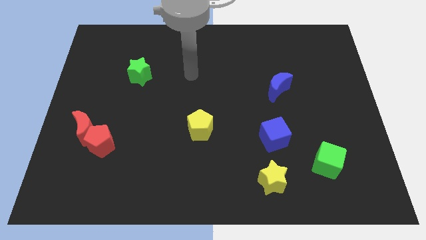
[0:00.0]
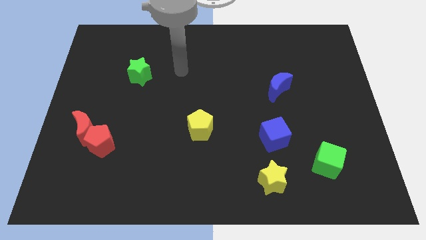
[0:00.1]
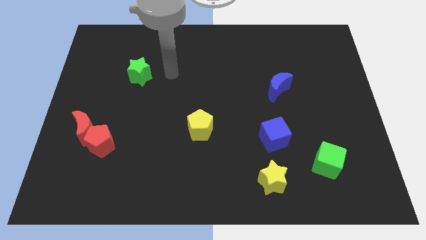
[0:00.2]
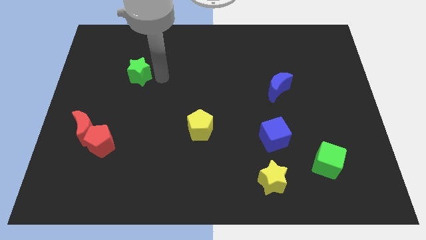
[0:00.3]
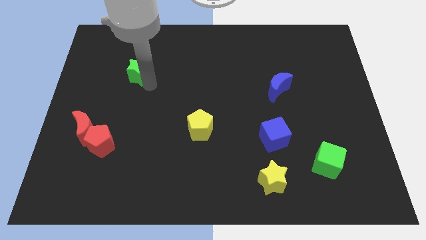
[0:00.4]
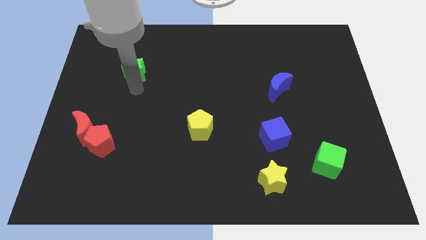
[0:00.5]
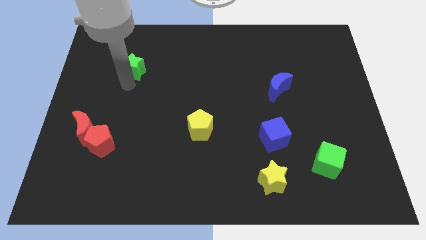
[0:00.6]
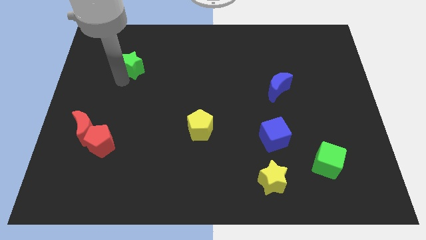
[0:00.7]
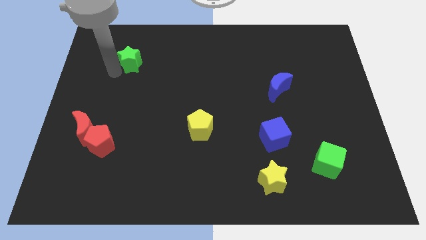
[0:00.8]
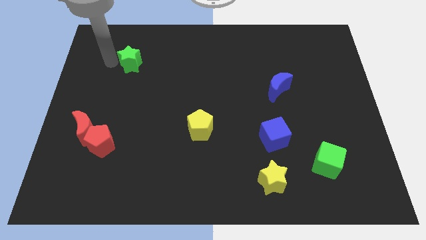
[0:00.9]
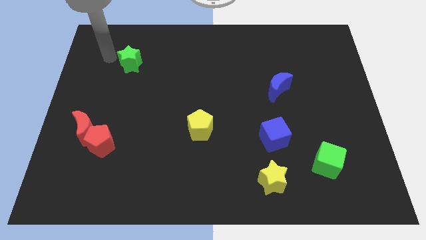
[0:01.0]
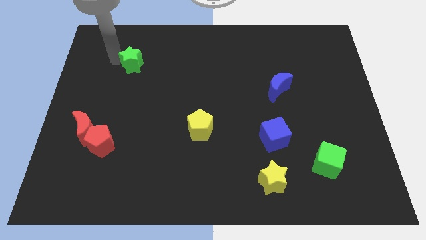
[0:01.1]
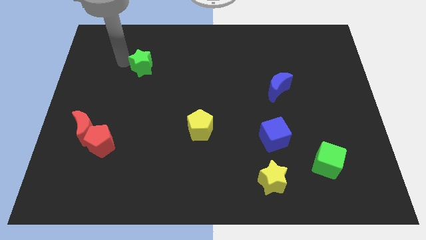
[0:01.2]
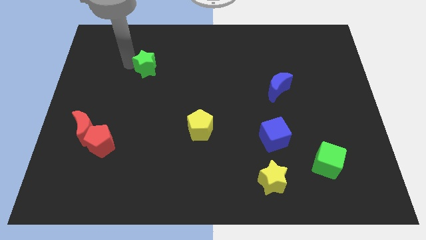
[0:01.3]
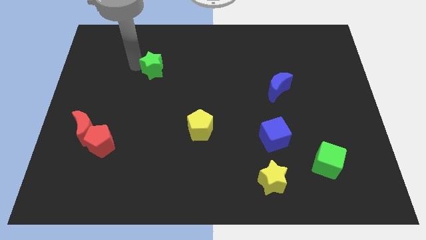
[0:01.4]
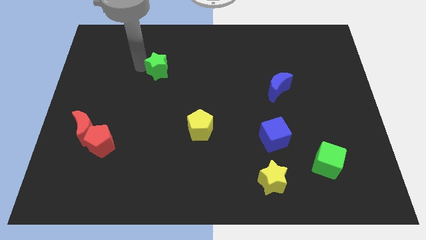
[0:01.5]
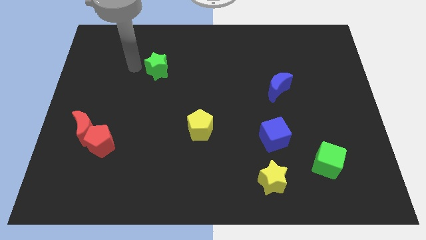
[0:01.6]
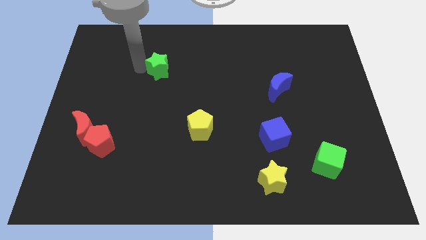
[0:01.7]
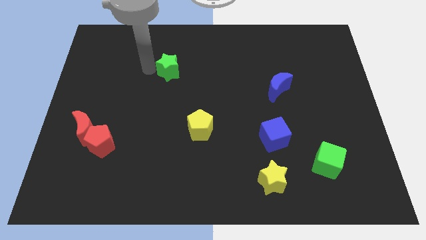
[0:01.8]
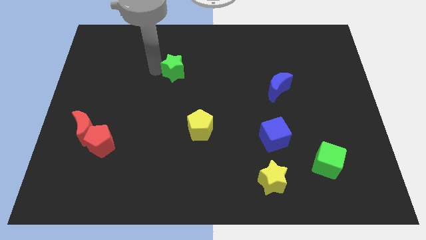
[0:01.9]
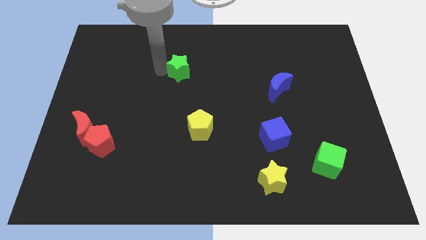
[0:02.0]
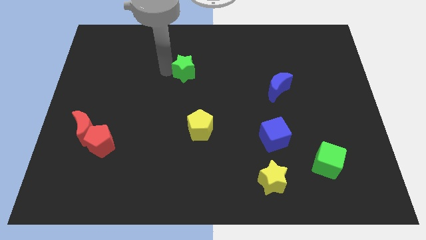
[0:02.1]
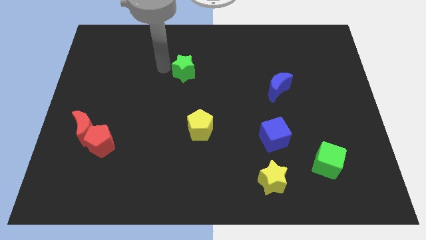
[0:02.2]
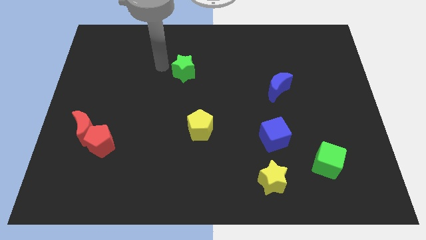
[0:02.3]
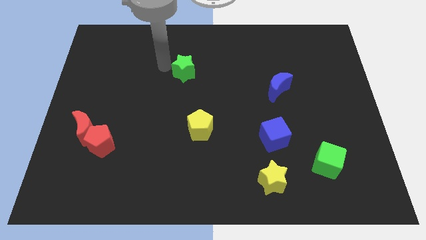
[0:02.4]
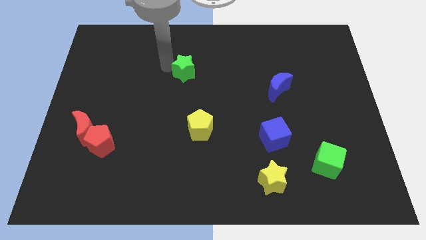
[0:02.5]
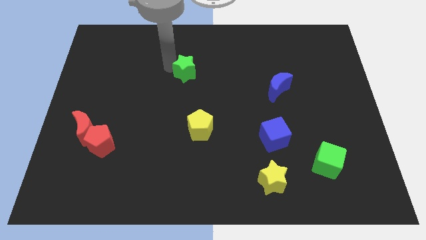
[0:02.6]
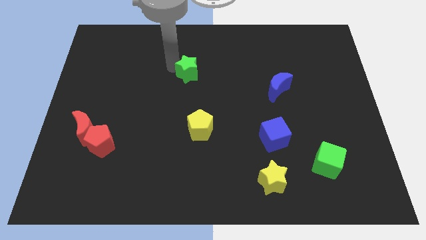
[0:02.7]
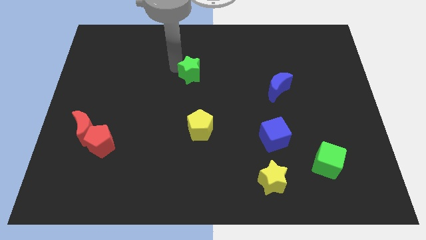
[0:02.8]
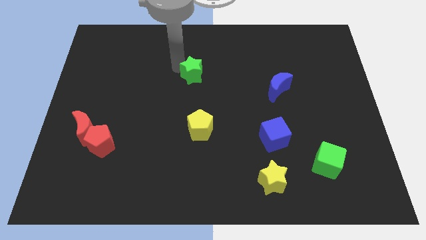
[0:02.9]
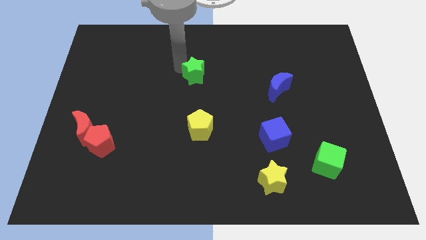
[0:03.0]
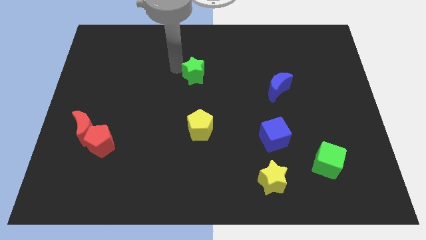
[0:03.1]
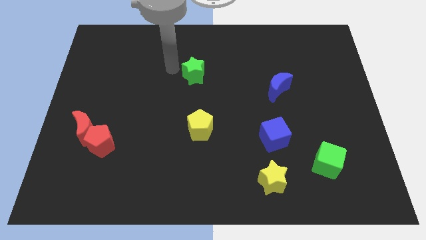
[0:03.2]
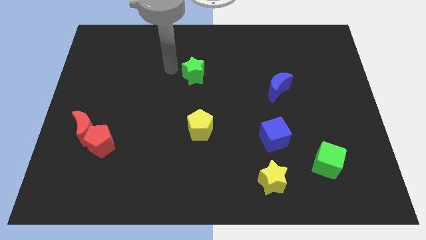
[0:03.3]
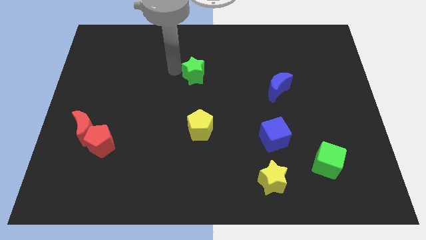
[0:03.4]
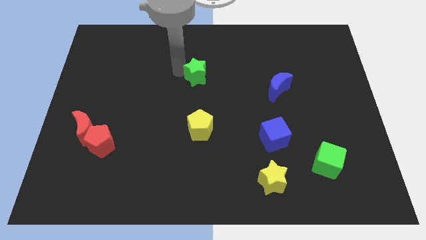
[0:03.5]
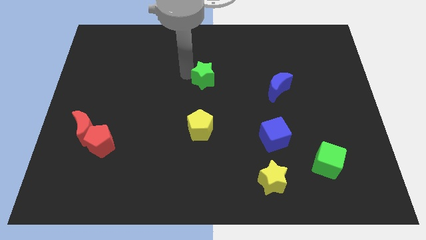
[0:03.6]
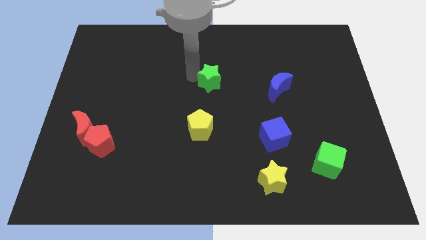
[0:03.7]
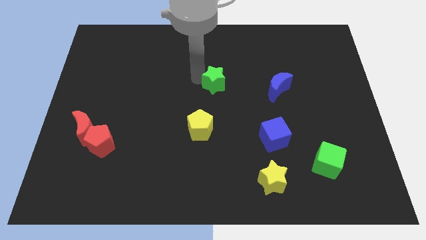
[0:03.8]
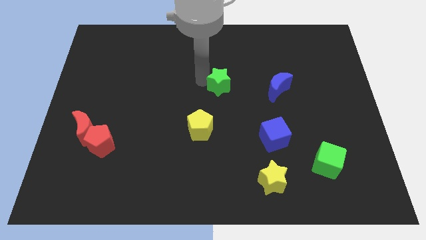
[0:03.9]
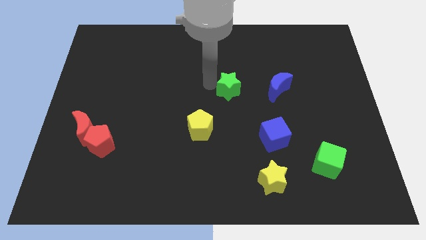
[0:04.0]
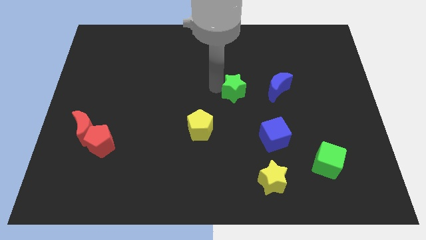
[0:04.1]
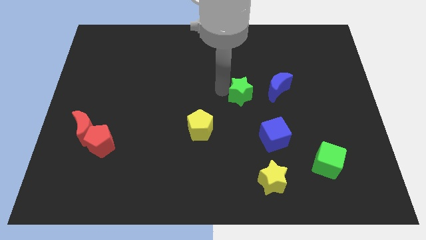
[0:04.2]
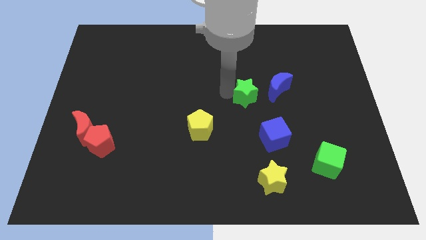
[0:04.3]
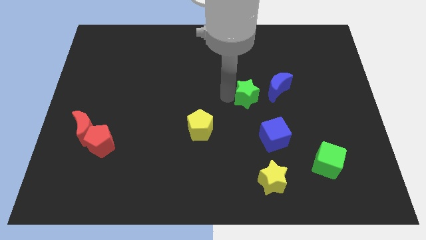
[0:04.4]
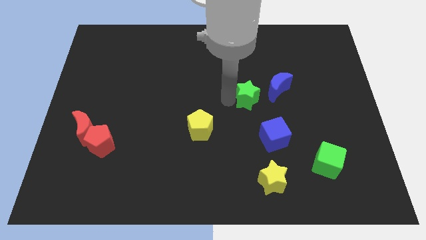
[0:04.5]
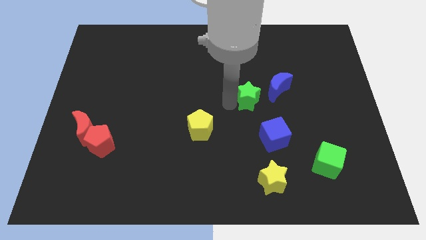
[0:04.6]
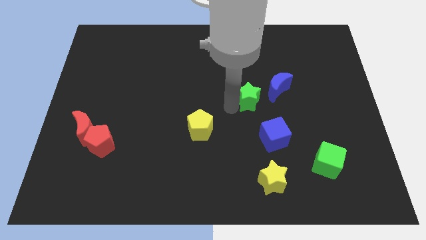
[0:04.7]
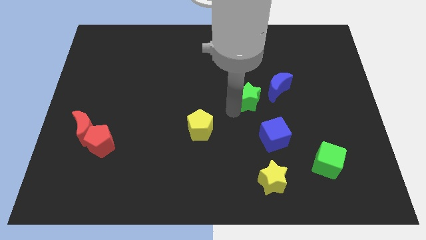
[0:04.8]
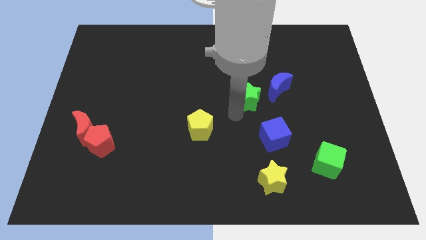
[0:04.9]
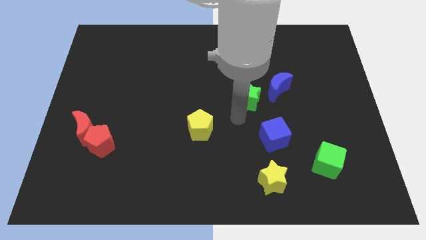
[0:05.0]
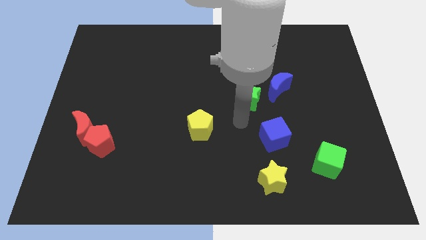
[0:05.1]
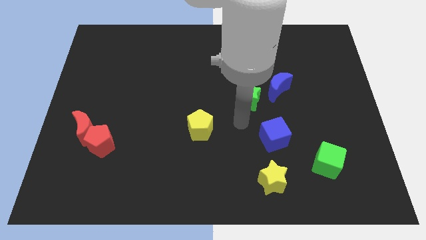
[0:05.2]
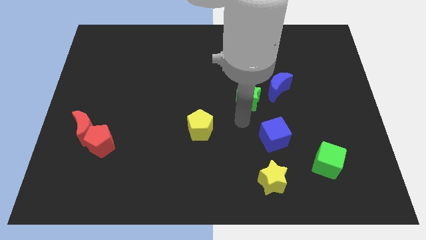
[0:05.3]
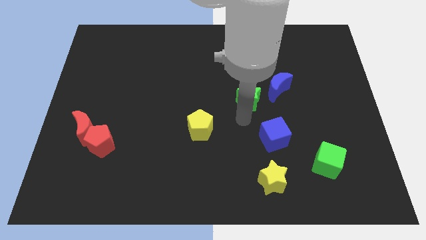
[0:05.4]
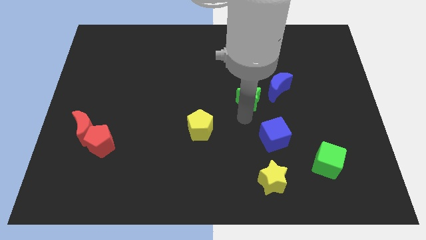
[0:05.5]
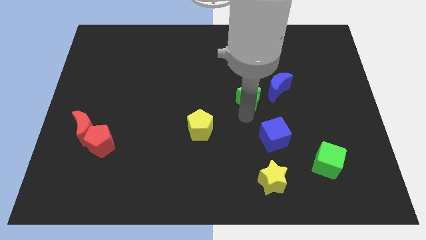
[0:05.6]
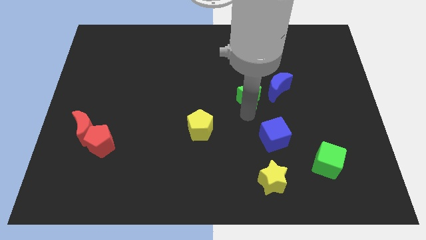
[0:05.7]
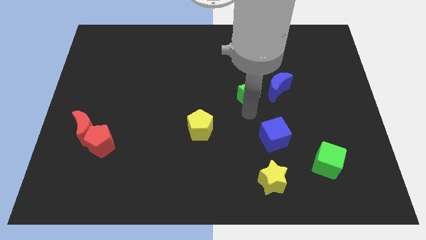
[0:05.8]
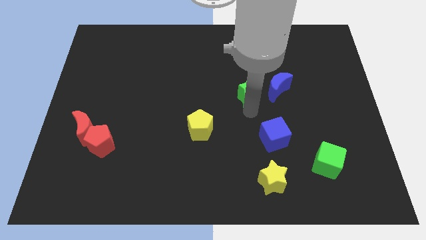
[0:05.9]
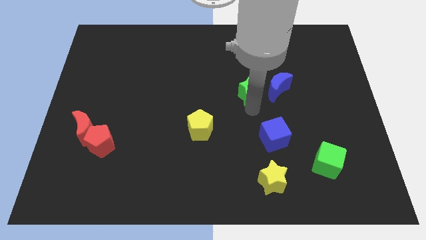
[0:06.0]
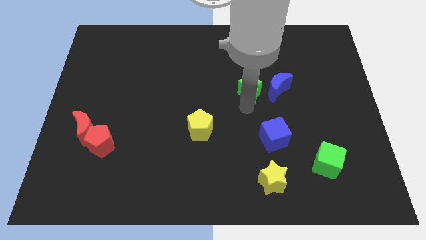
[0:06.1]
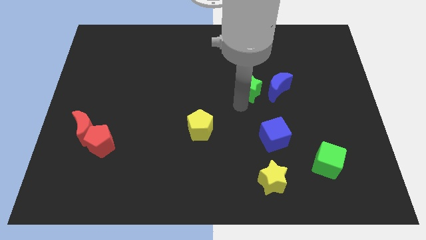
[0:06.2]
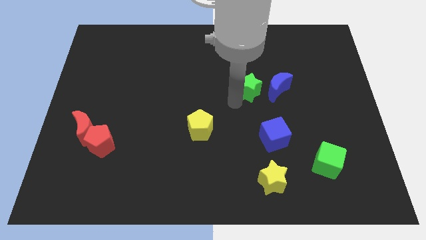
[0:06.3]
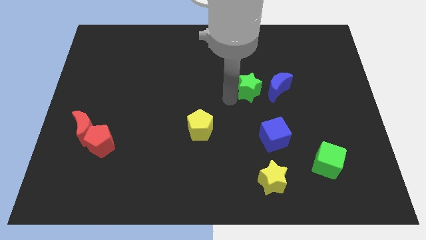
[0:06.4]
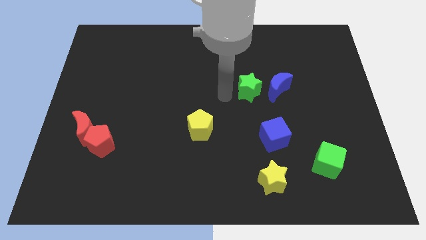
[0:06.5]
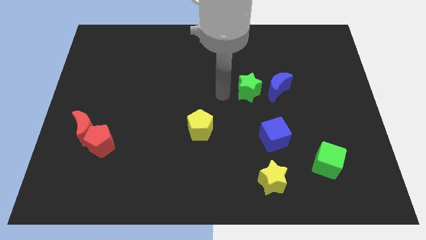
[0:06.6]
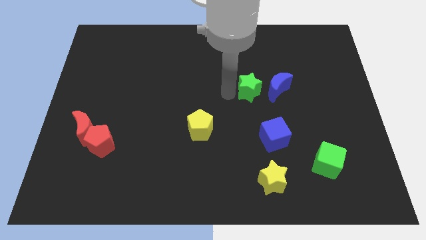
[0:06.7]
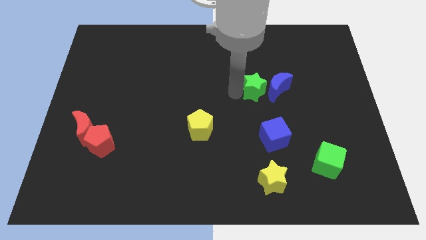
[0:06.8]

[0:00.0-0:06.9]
put the green star close to the blue moon

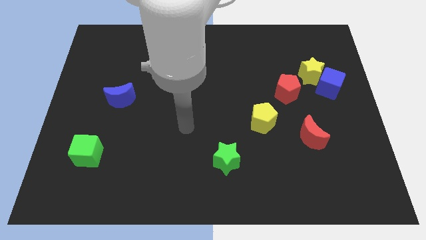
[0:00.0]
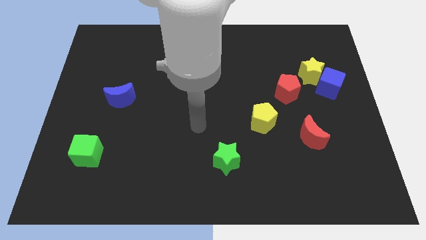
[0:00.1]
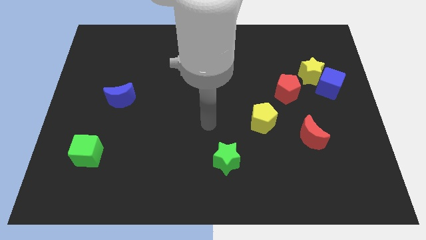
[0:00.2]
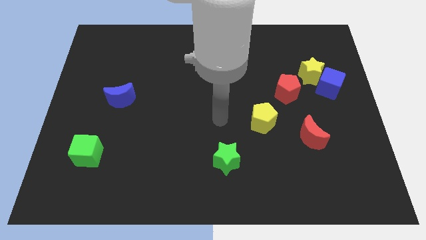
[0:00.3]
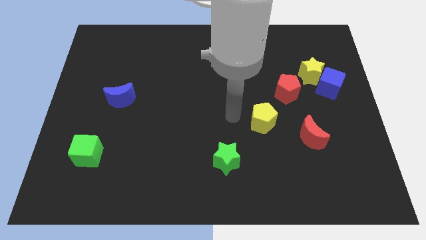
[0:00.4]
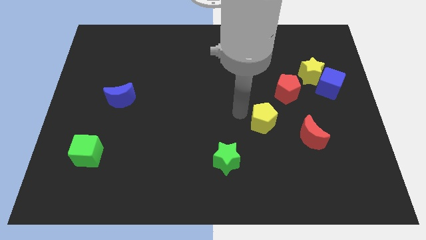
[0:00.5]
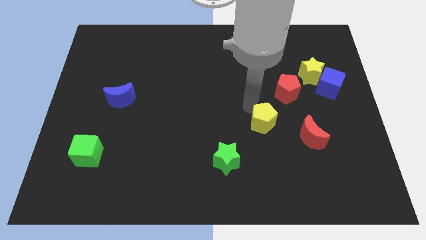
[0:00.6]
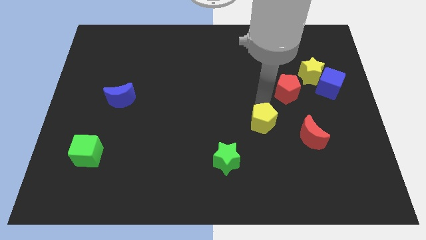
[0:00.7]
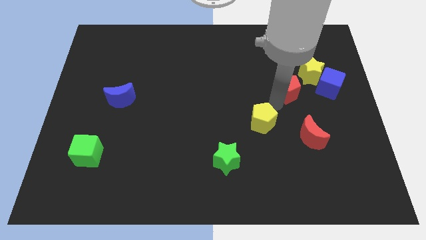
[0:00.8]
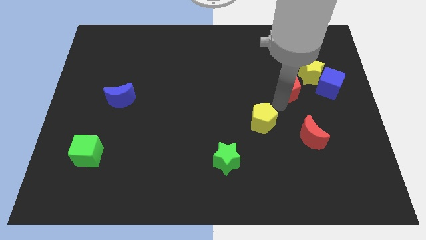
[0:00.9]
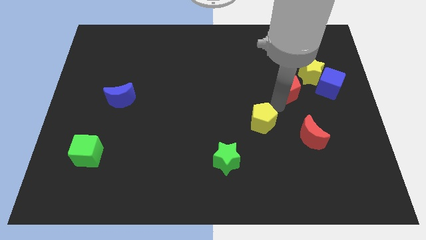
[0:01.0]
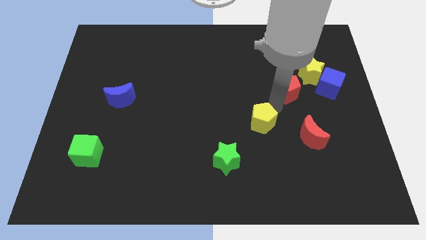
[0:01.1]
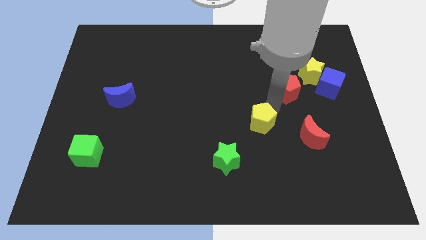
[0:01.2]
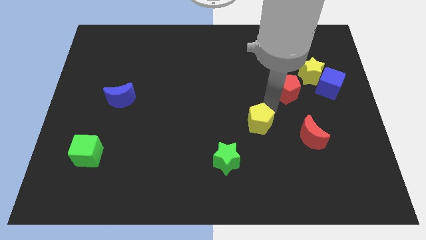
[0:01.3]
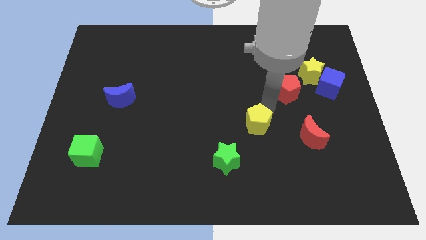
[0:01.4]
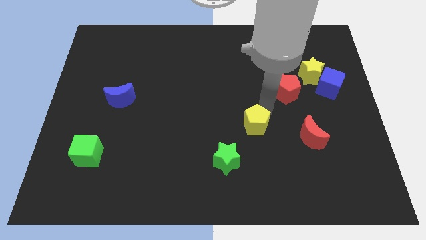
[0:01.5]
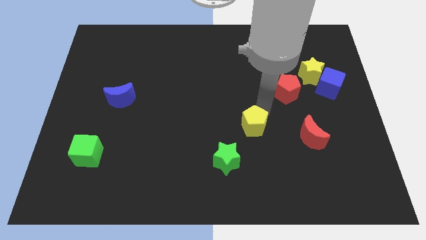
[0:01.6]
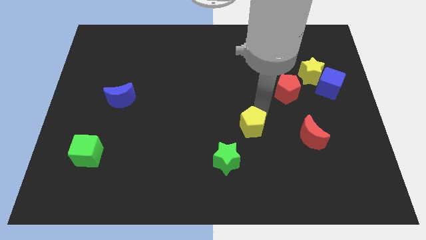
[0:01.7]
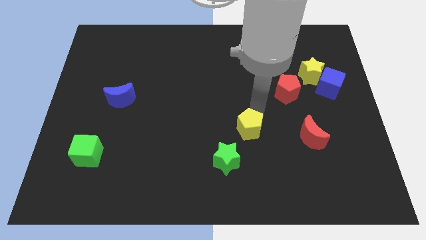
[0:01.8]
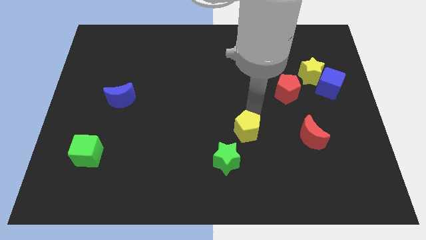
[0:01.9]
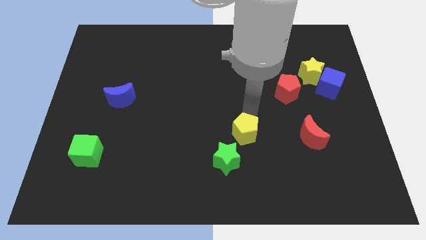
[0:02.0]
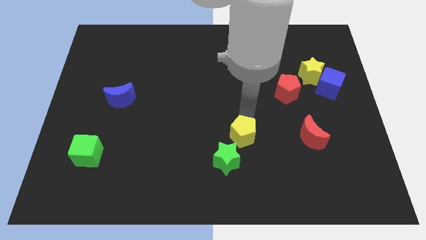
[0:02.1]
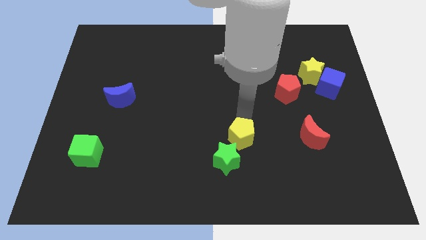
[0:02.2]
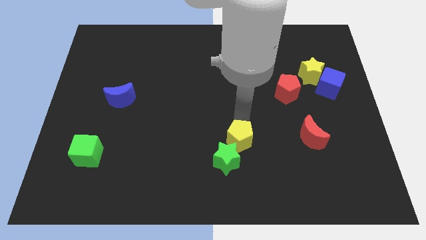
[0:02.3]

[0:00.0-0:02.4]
slide the yellow pentagon to the green star
